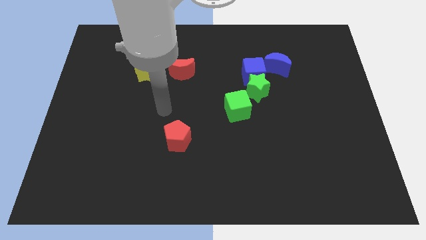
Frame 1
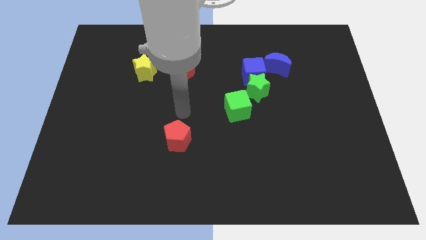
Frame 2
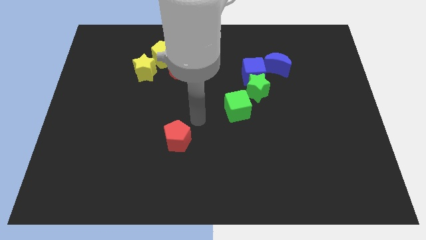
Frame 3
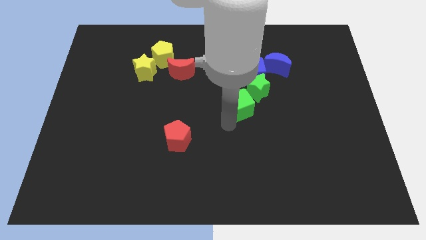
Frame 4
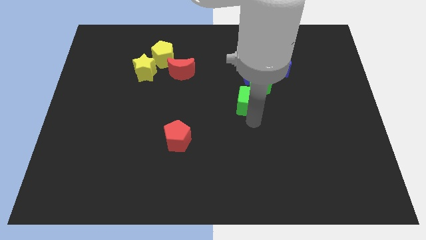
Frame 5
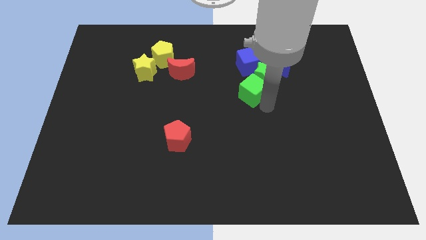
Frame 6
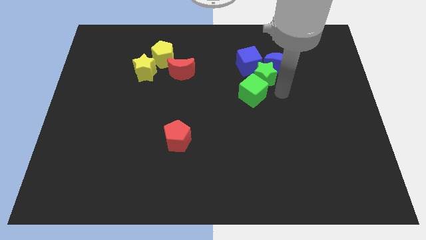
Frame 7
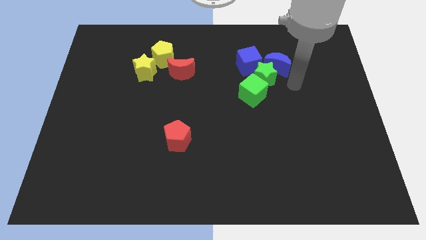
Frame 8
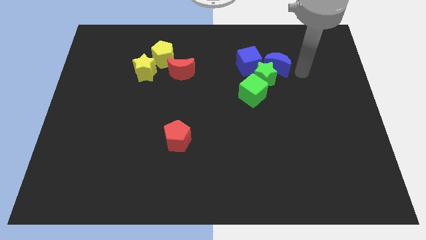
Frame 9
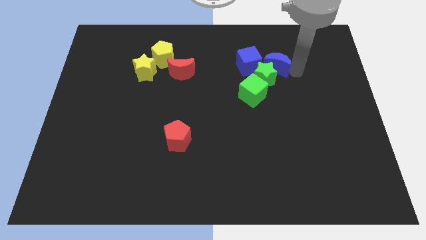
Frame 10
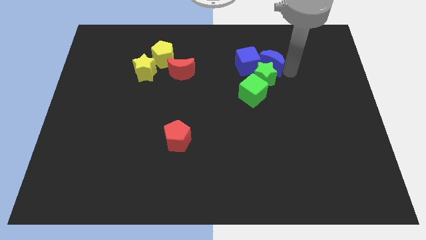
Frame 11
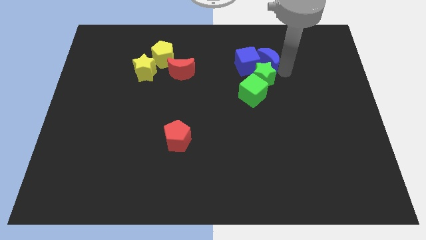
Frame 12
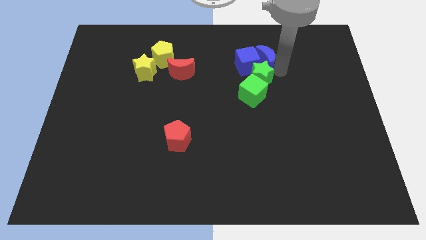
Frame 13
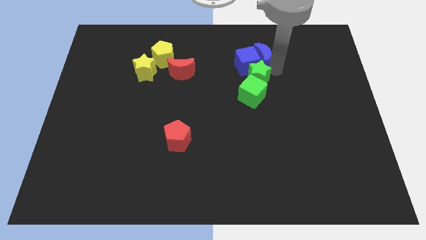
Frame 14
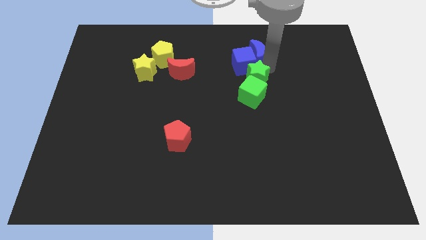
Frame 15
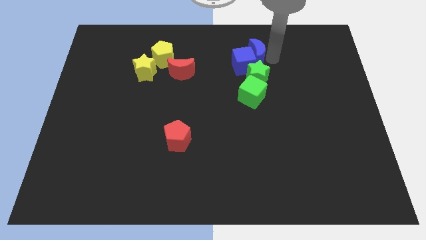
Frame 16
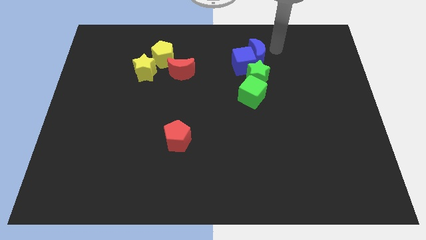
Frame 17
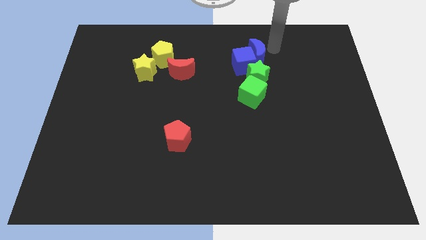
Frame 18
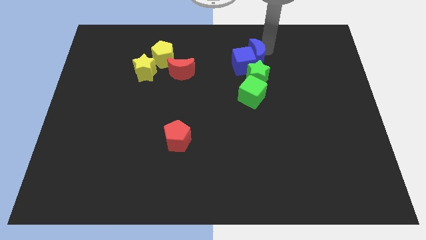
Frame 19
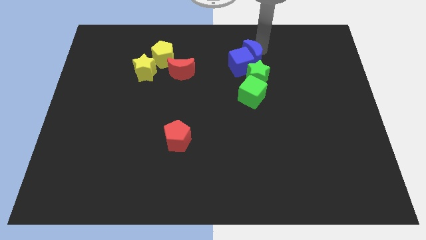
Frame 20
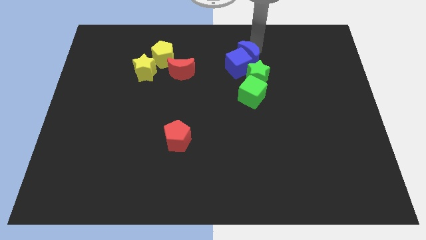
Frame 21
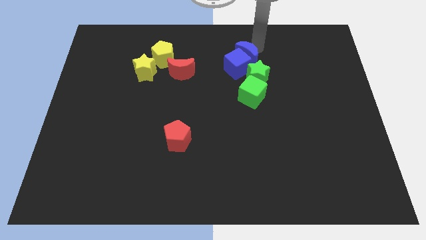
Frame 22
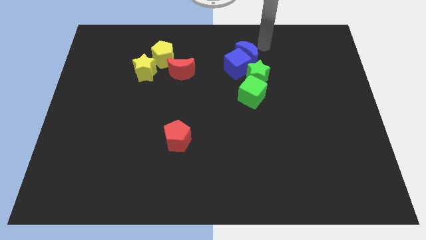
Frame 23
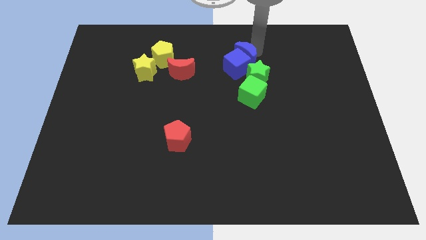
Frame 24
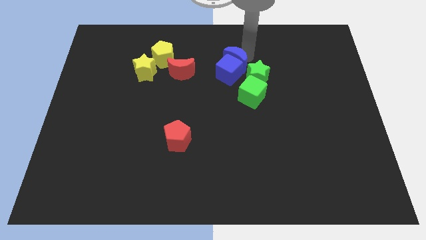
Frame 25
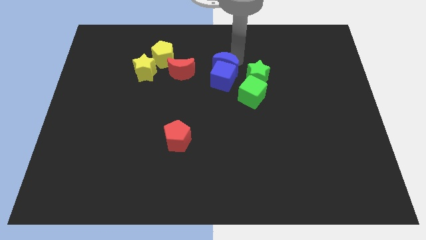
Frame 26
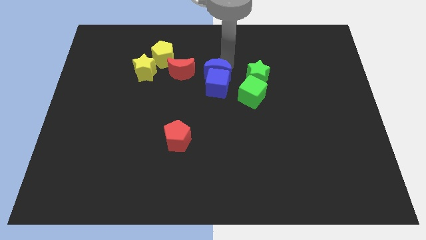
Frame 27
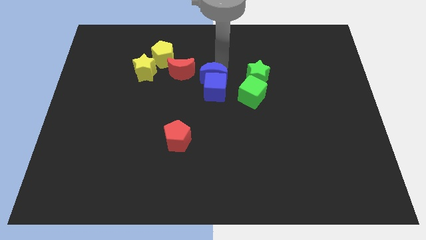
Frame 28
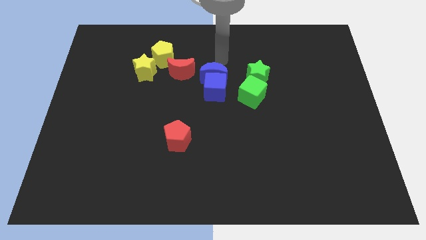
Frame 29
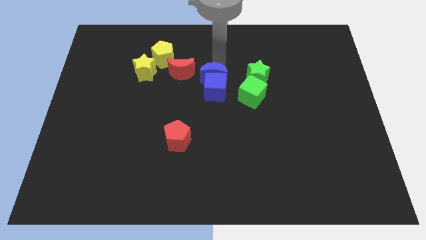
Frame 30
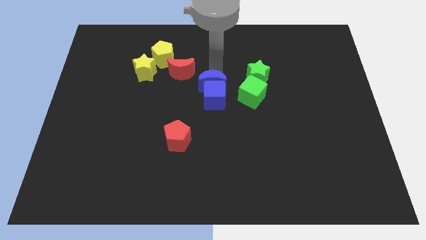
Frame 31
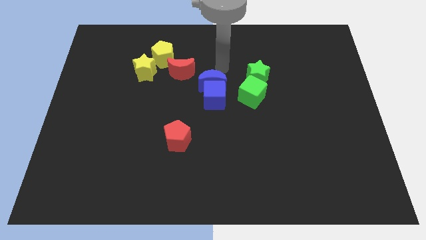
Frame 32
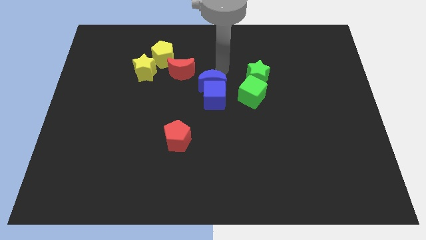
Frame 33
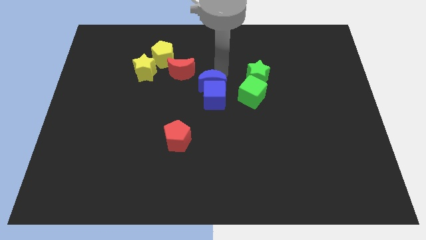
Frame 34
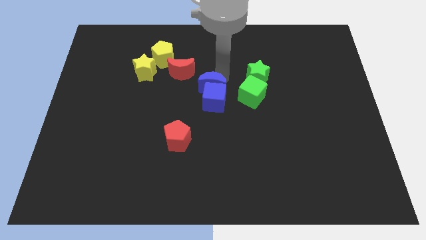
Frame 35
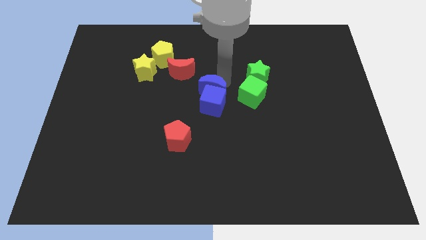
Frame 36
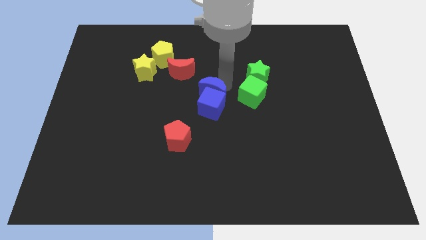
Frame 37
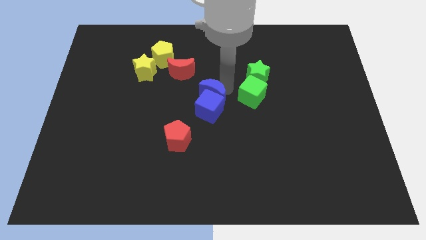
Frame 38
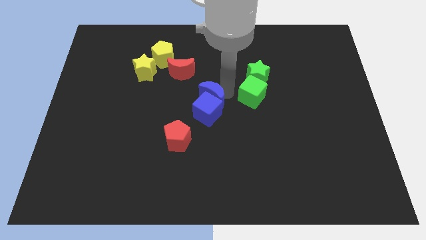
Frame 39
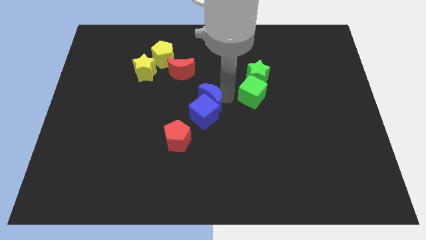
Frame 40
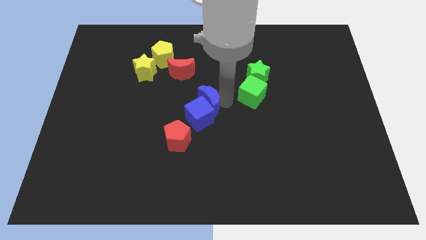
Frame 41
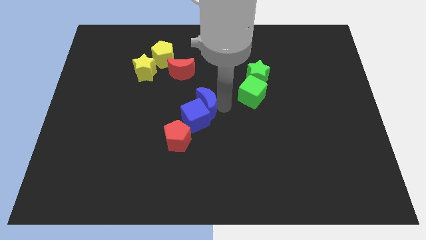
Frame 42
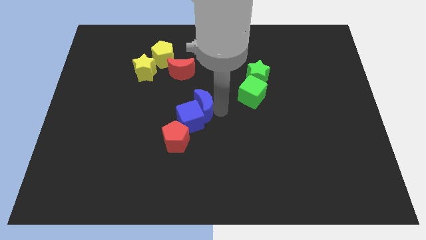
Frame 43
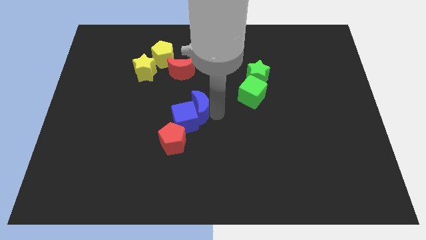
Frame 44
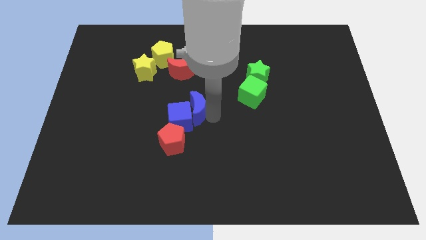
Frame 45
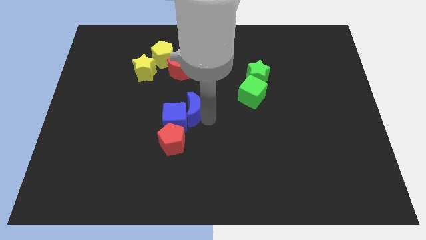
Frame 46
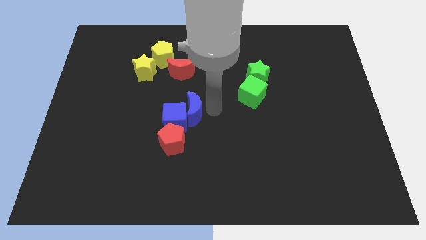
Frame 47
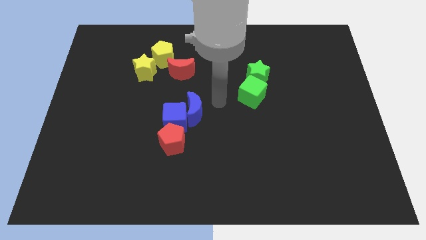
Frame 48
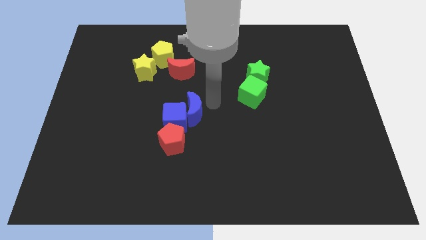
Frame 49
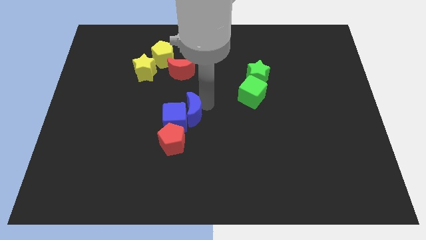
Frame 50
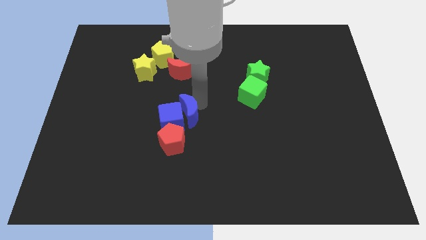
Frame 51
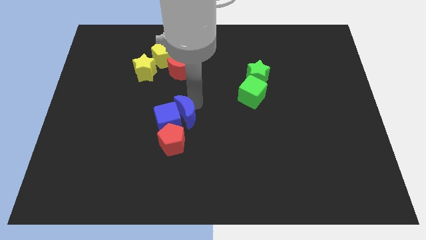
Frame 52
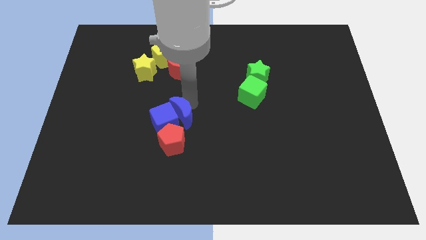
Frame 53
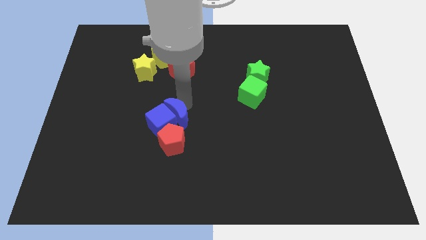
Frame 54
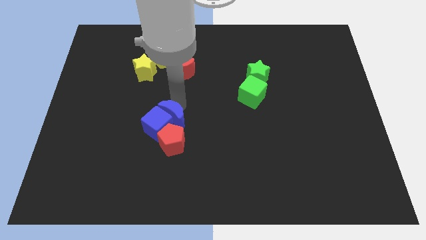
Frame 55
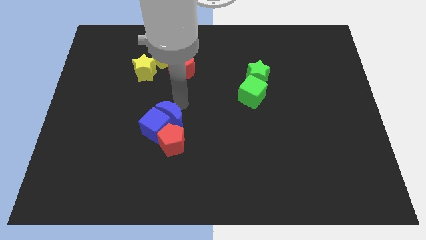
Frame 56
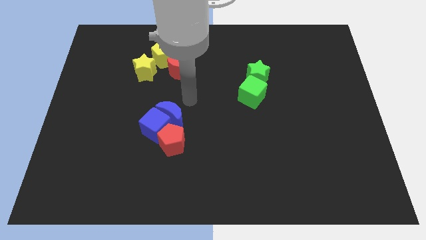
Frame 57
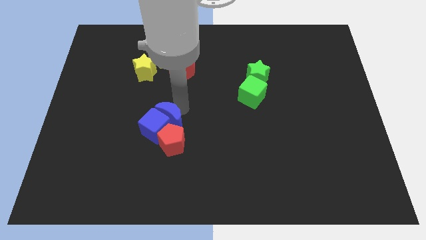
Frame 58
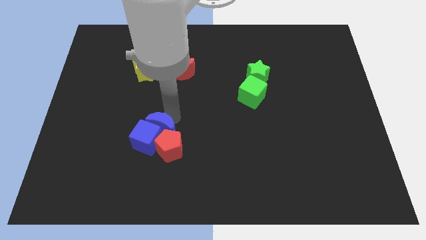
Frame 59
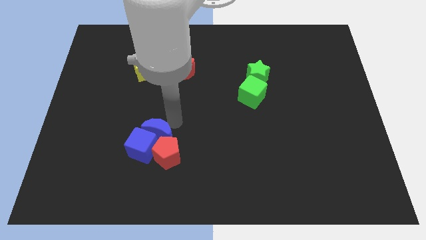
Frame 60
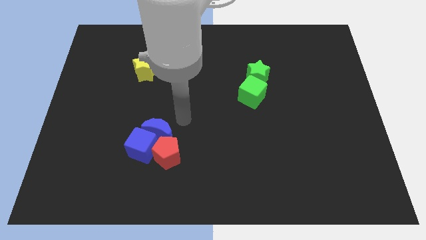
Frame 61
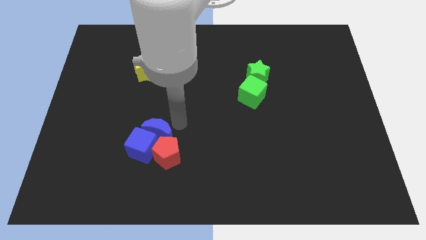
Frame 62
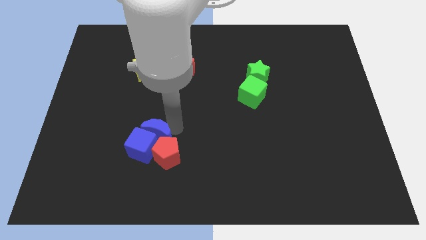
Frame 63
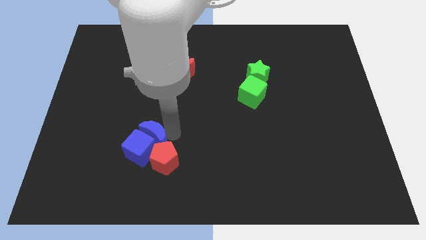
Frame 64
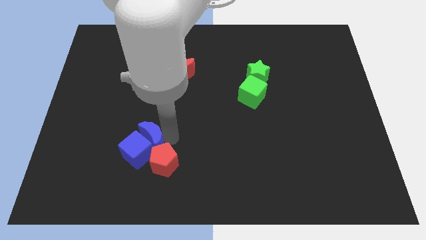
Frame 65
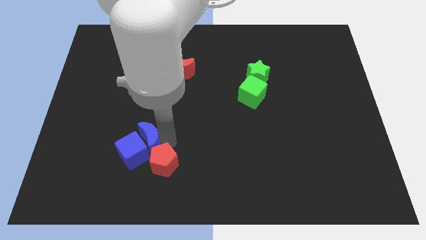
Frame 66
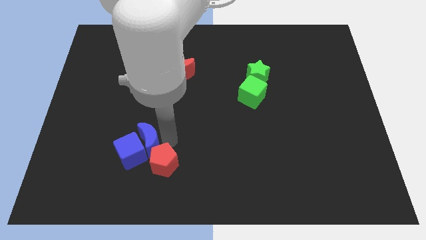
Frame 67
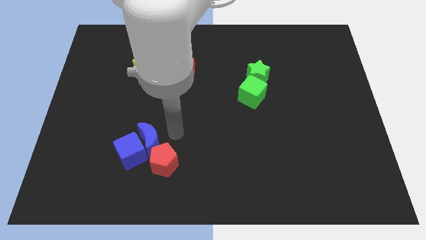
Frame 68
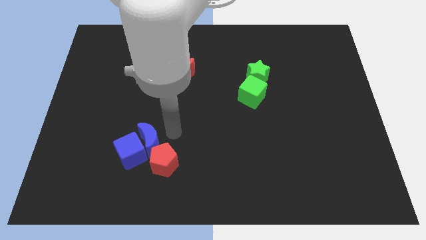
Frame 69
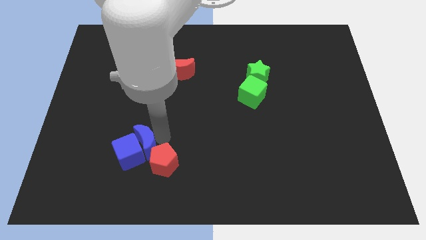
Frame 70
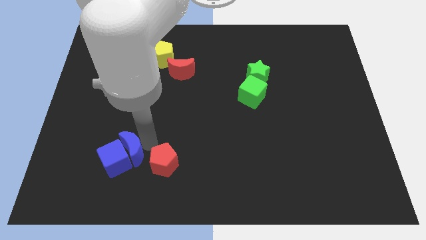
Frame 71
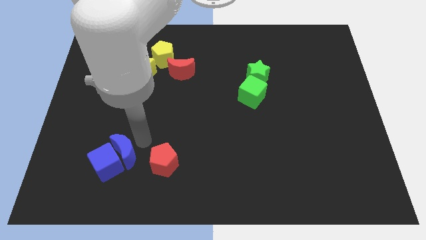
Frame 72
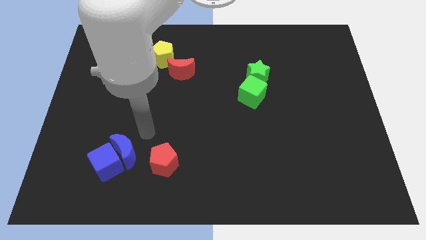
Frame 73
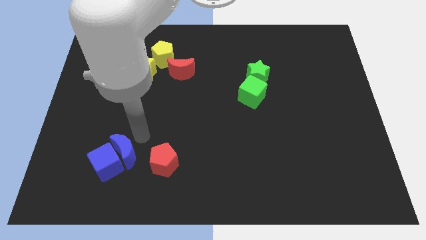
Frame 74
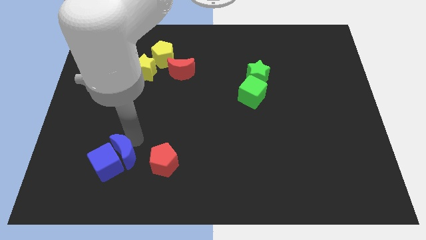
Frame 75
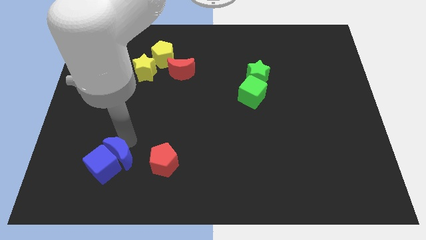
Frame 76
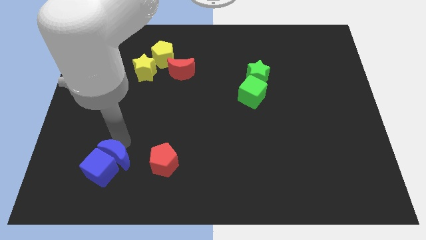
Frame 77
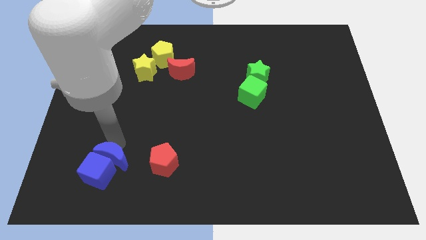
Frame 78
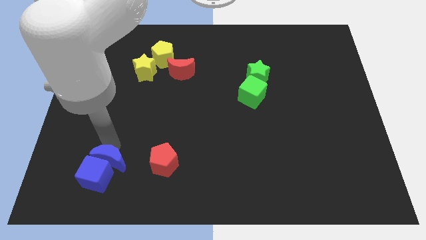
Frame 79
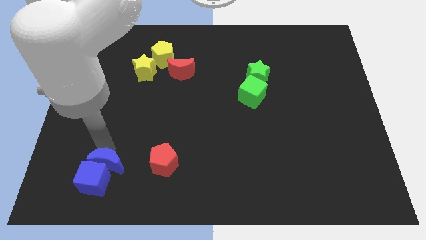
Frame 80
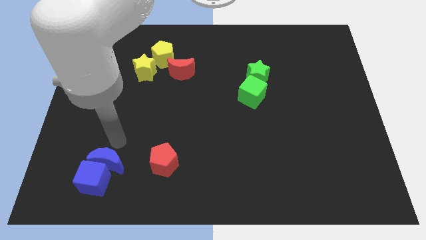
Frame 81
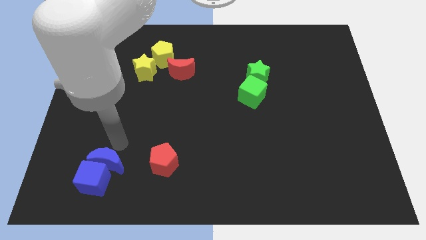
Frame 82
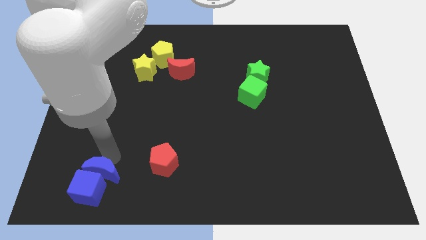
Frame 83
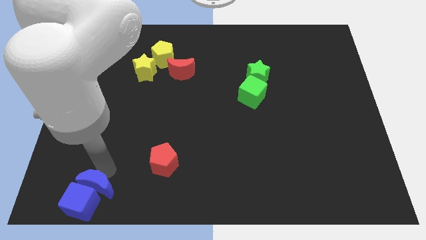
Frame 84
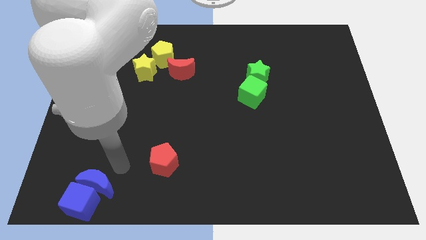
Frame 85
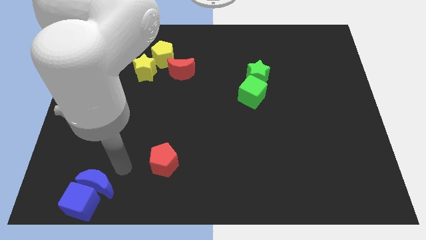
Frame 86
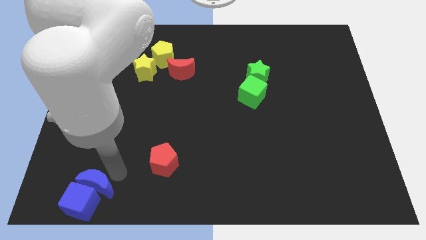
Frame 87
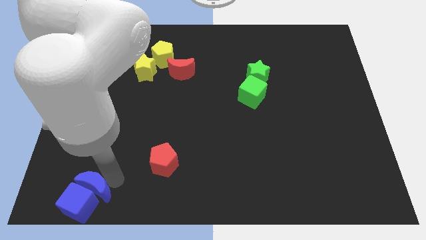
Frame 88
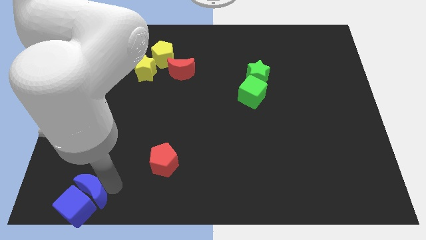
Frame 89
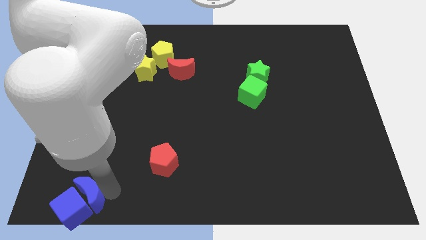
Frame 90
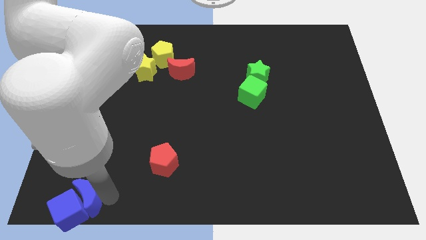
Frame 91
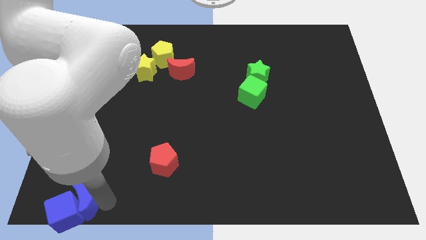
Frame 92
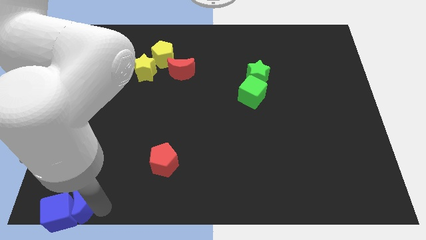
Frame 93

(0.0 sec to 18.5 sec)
slide the blue moon to the bottom left of the board
